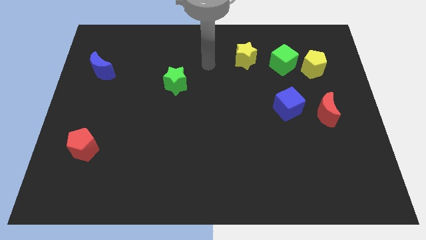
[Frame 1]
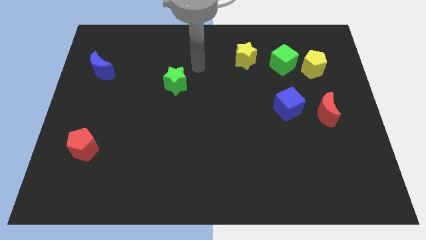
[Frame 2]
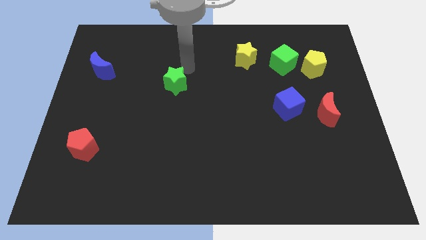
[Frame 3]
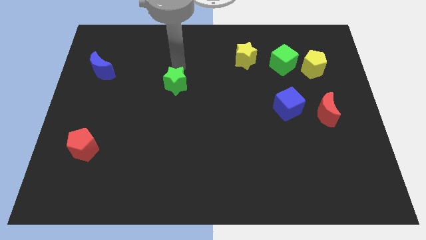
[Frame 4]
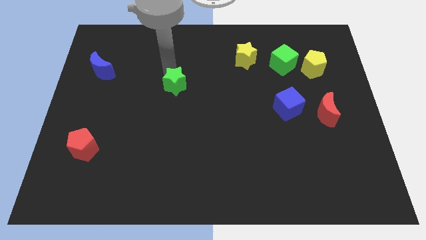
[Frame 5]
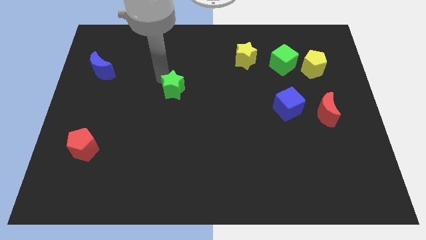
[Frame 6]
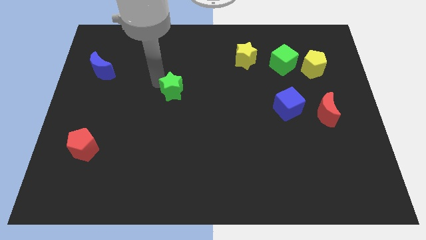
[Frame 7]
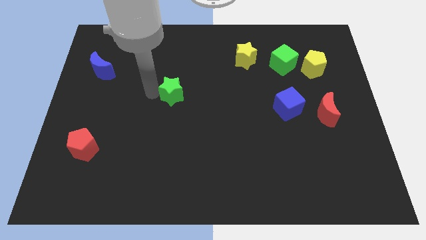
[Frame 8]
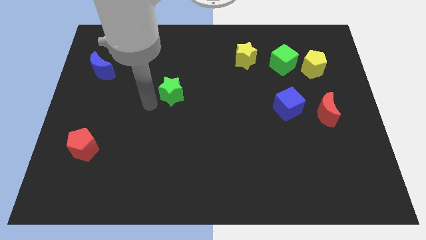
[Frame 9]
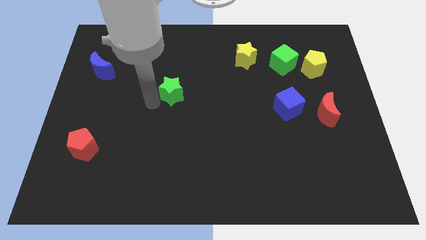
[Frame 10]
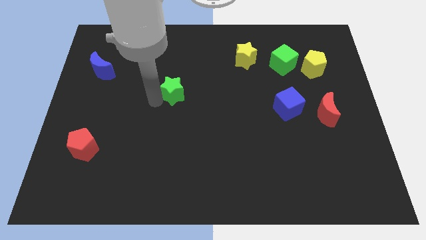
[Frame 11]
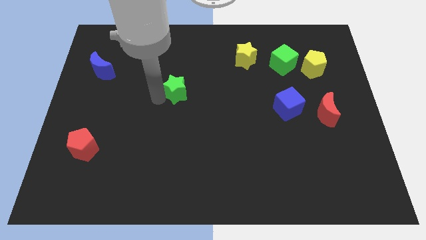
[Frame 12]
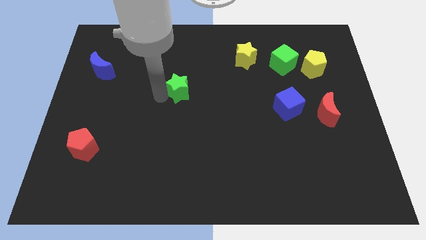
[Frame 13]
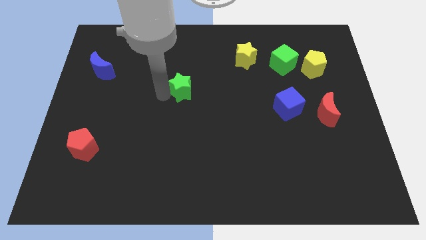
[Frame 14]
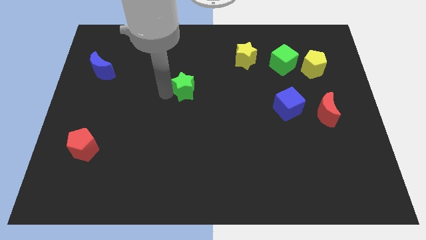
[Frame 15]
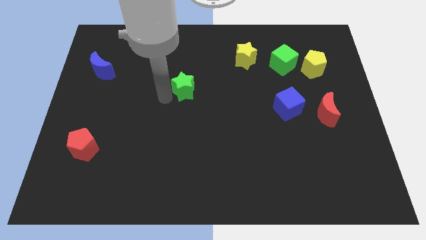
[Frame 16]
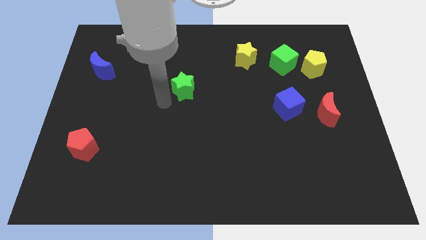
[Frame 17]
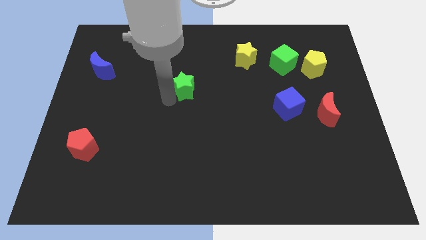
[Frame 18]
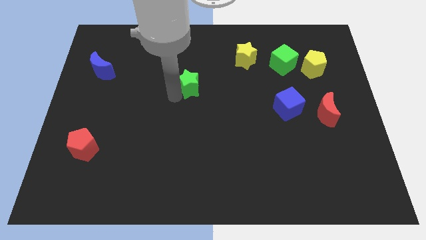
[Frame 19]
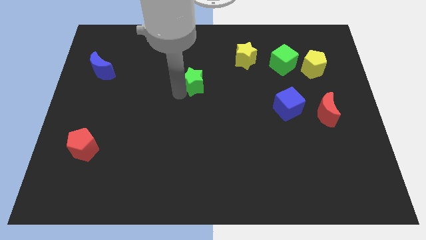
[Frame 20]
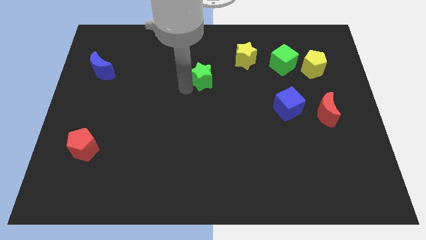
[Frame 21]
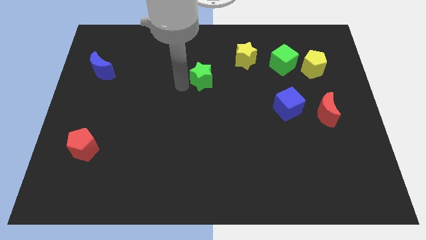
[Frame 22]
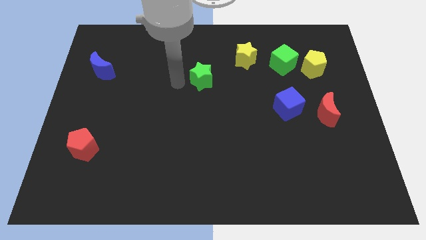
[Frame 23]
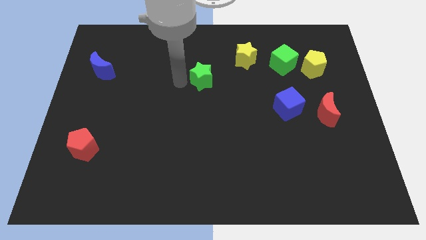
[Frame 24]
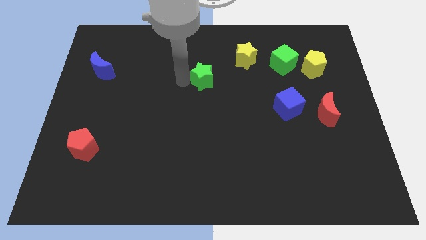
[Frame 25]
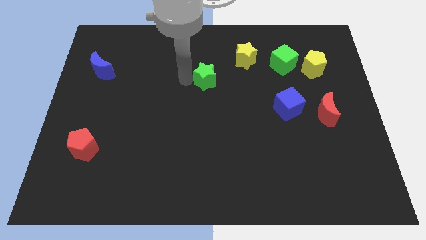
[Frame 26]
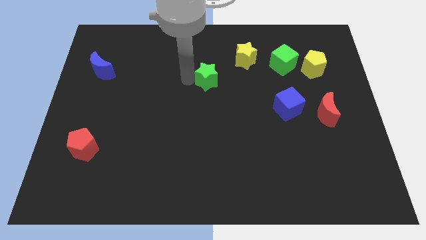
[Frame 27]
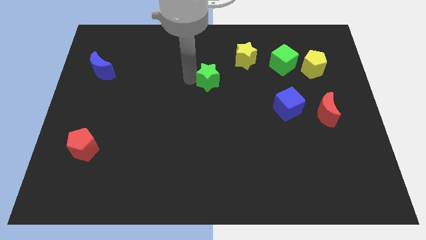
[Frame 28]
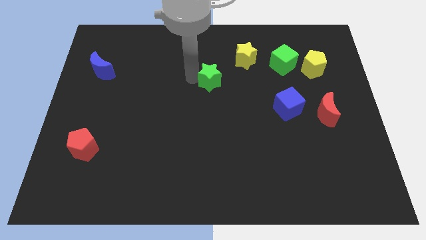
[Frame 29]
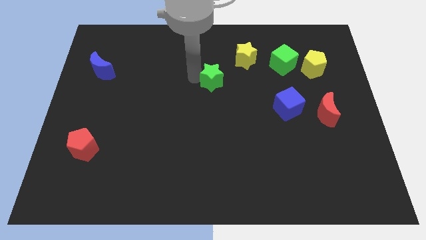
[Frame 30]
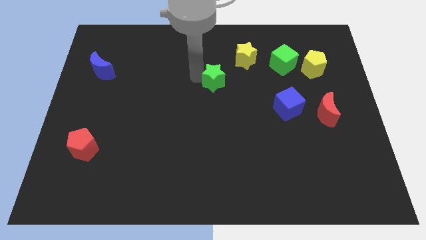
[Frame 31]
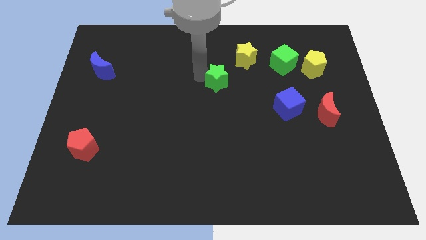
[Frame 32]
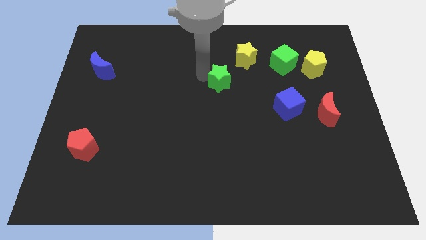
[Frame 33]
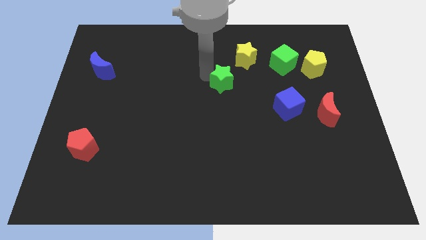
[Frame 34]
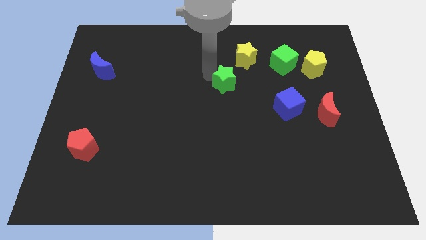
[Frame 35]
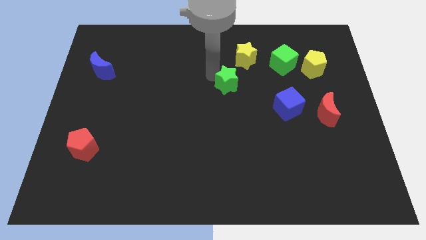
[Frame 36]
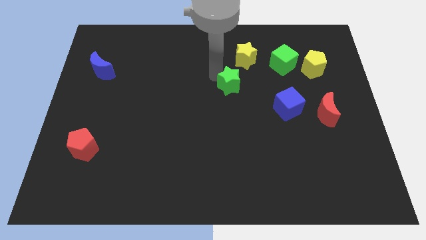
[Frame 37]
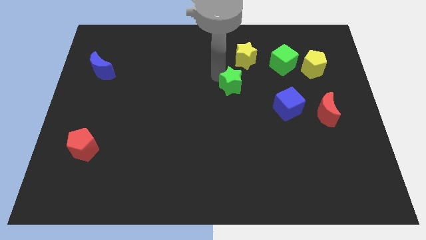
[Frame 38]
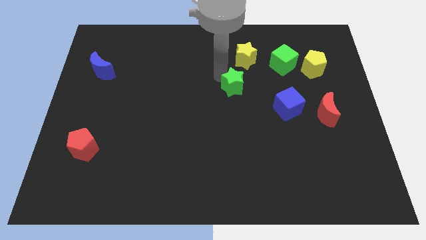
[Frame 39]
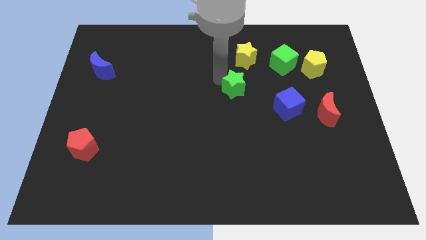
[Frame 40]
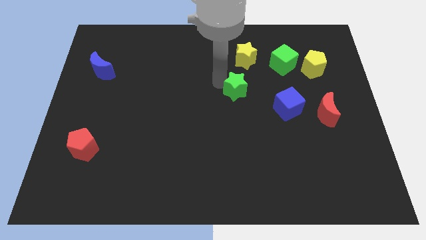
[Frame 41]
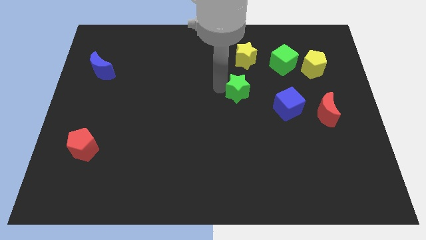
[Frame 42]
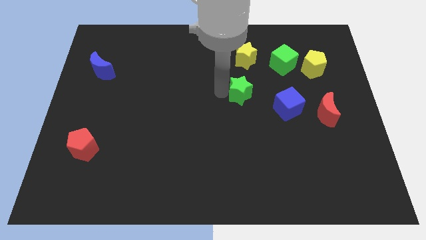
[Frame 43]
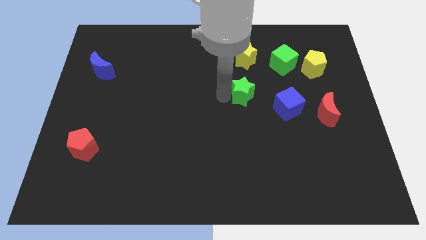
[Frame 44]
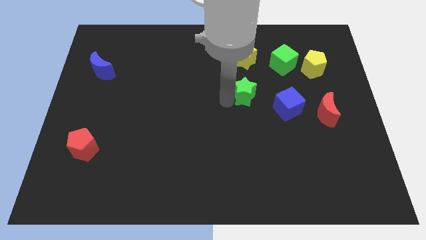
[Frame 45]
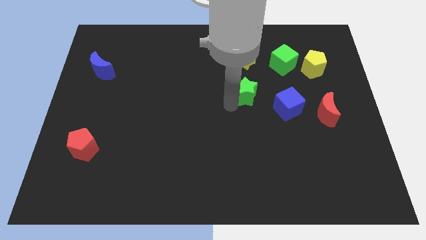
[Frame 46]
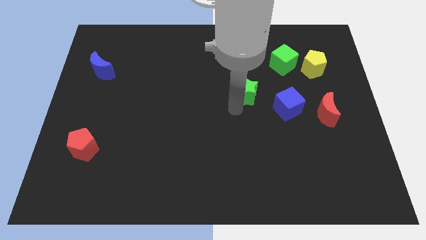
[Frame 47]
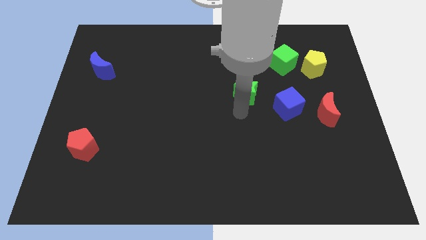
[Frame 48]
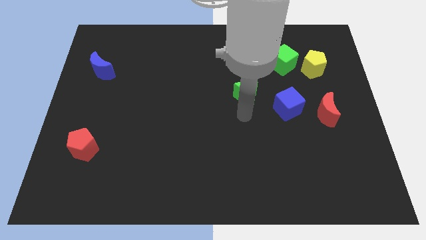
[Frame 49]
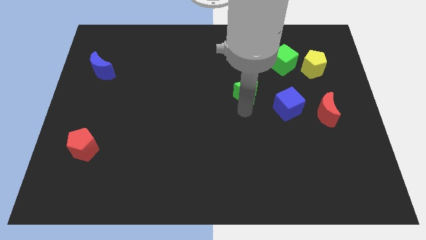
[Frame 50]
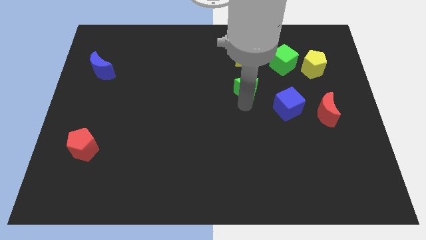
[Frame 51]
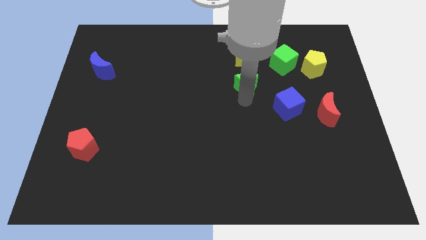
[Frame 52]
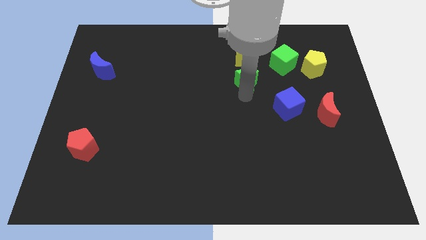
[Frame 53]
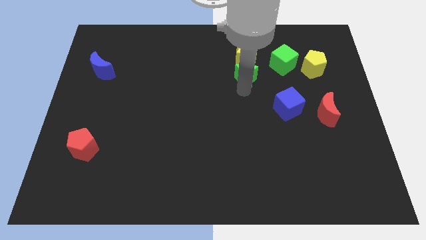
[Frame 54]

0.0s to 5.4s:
slide the green star to the bottom right side of the yellow star

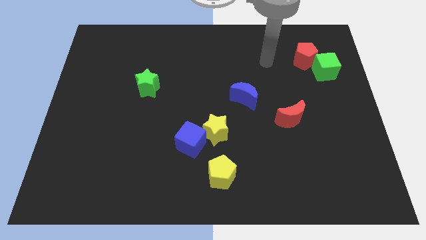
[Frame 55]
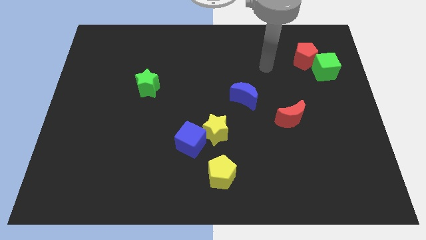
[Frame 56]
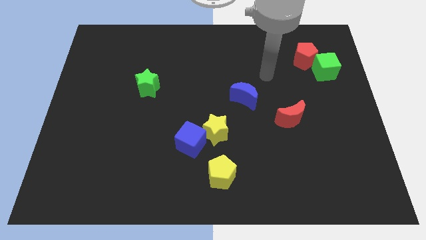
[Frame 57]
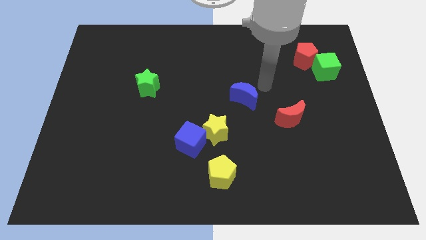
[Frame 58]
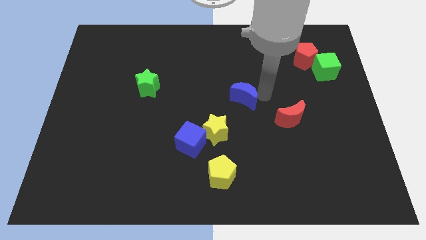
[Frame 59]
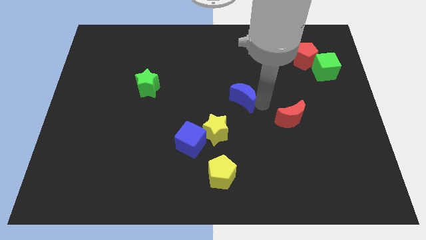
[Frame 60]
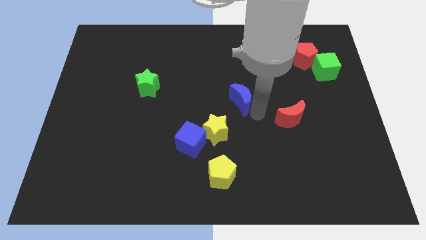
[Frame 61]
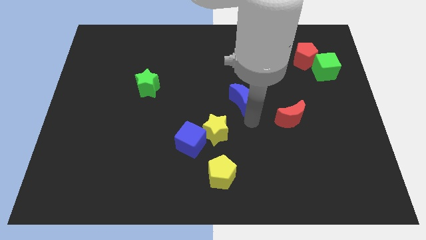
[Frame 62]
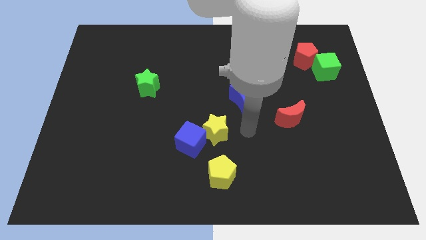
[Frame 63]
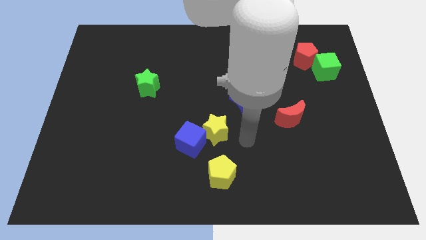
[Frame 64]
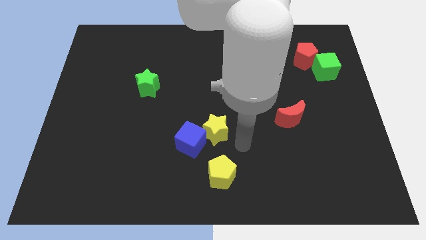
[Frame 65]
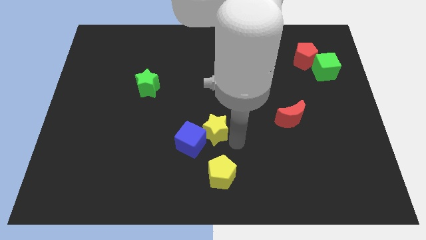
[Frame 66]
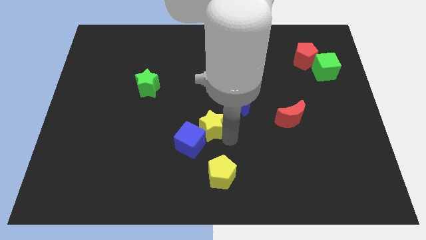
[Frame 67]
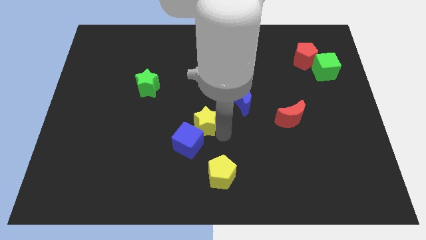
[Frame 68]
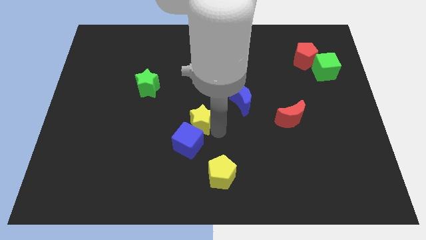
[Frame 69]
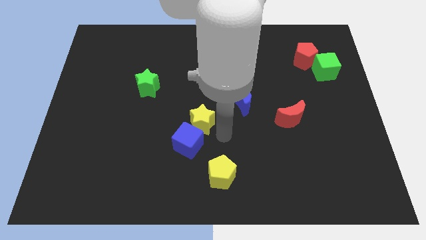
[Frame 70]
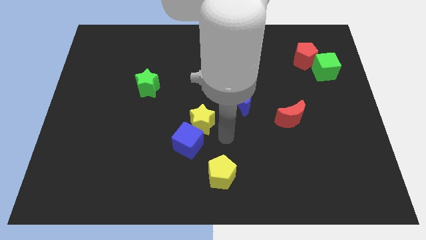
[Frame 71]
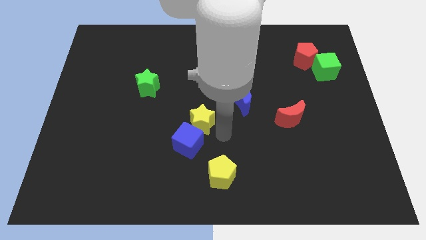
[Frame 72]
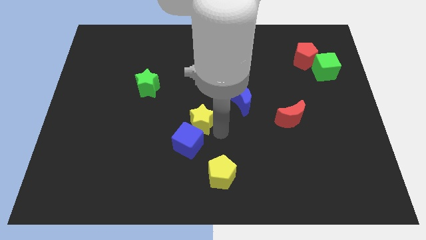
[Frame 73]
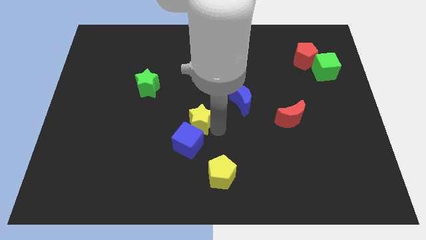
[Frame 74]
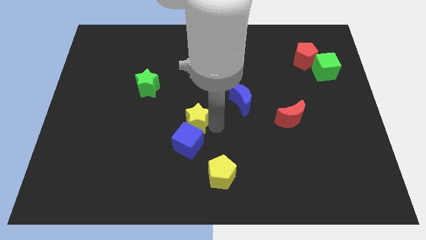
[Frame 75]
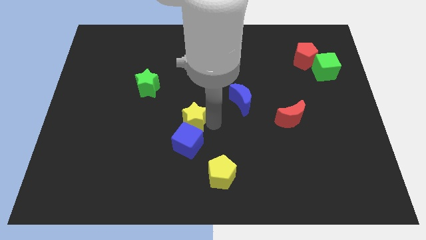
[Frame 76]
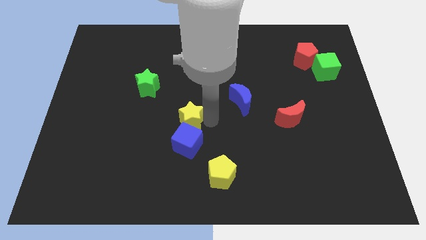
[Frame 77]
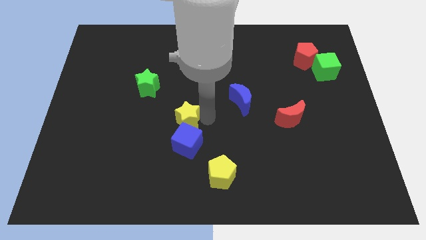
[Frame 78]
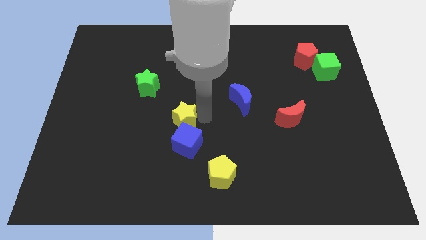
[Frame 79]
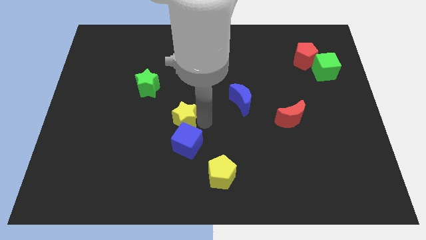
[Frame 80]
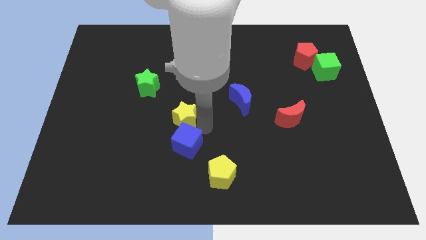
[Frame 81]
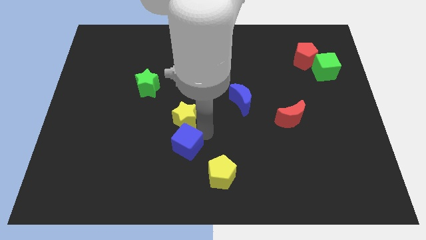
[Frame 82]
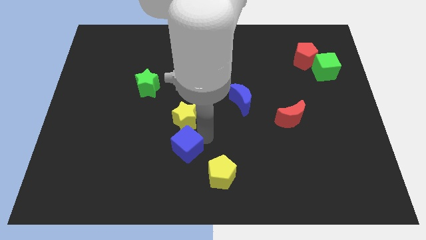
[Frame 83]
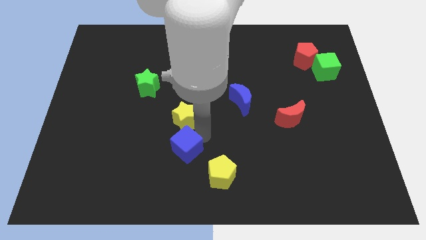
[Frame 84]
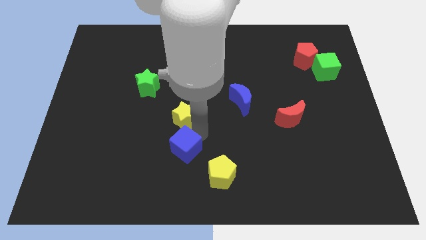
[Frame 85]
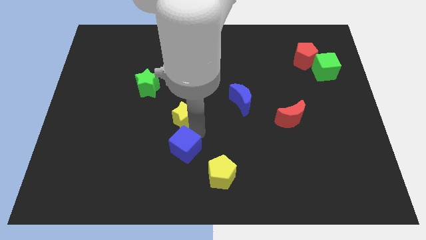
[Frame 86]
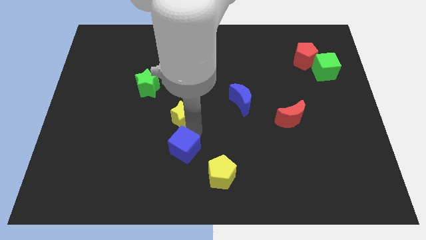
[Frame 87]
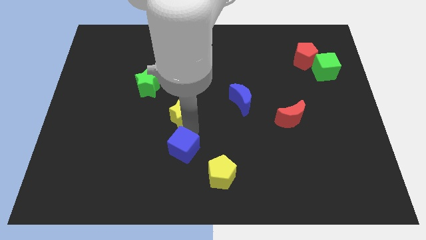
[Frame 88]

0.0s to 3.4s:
push the yellow star to the bottom right side of the green star
